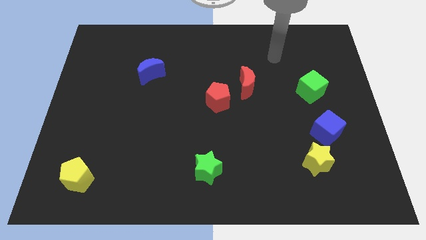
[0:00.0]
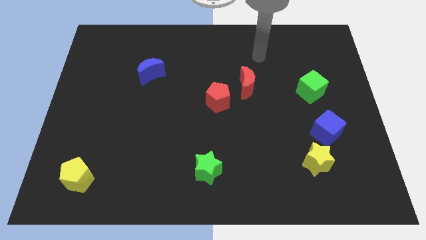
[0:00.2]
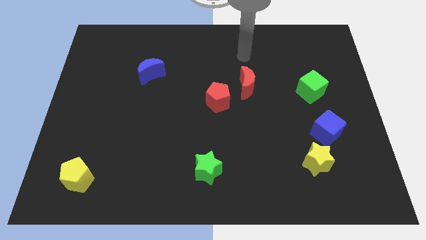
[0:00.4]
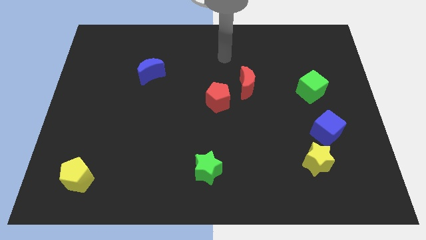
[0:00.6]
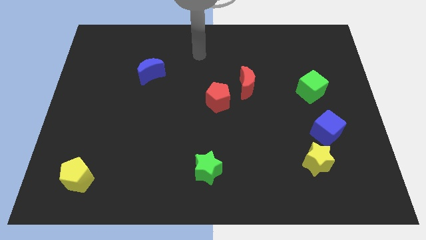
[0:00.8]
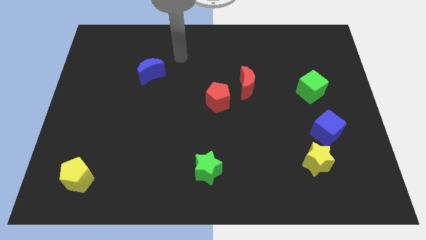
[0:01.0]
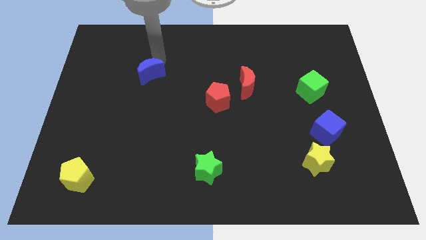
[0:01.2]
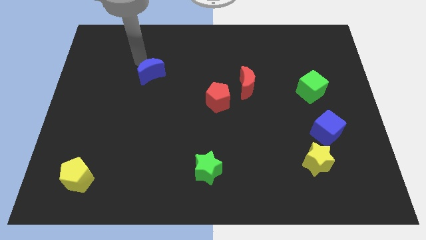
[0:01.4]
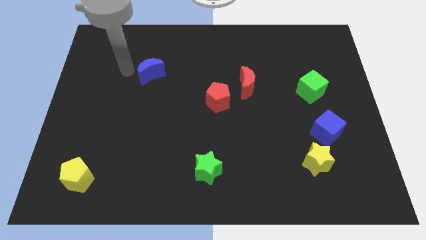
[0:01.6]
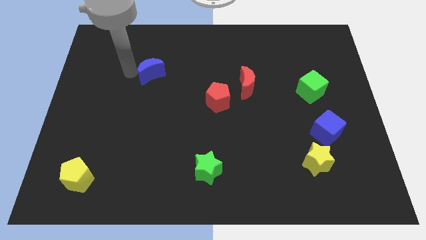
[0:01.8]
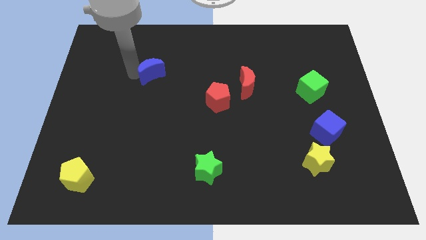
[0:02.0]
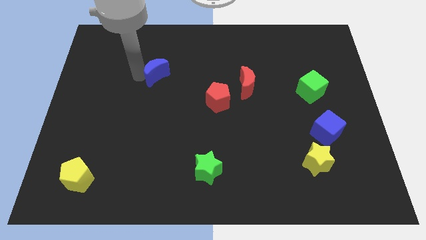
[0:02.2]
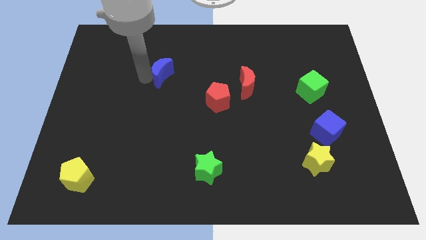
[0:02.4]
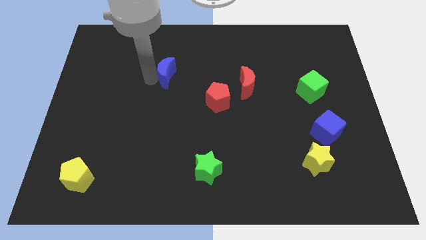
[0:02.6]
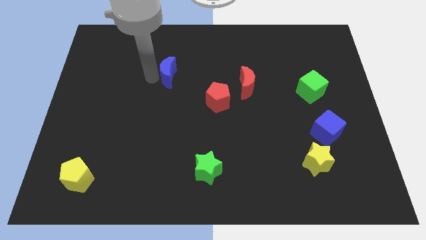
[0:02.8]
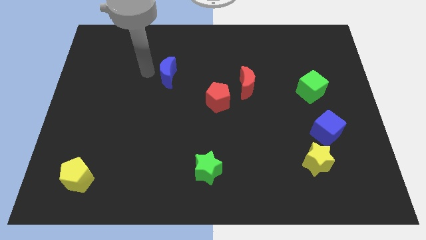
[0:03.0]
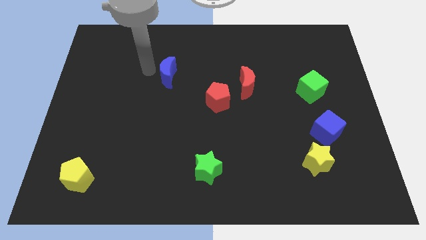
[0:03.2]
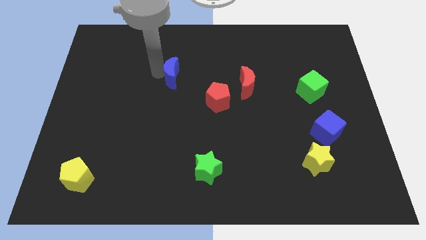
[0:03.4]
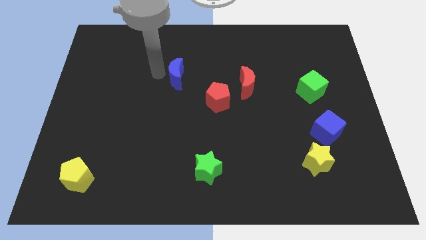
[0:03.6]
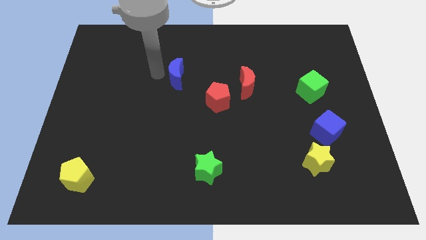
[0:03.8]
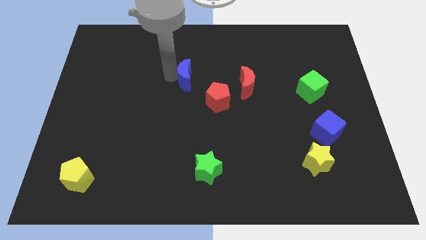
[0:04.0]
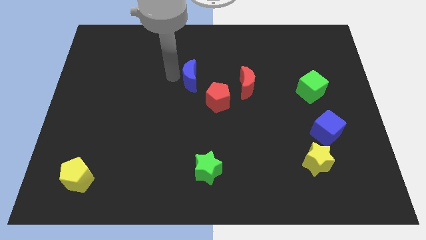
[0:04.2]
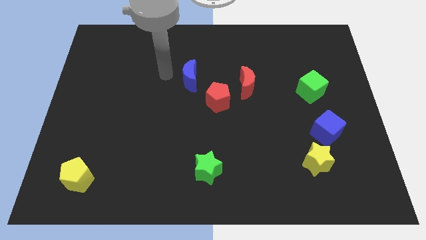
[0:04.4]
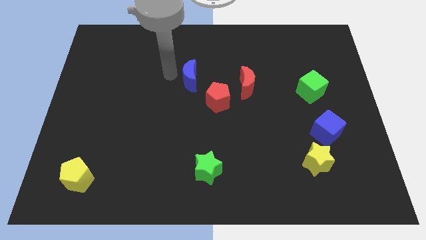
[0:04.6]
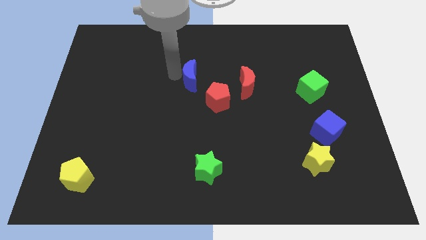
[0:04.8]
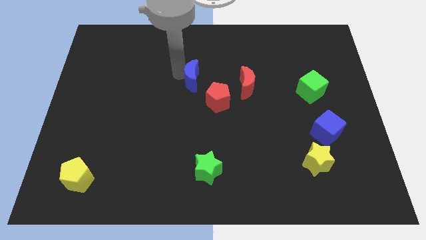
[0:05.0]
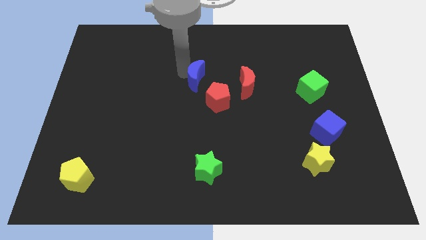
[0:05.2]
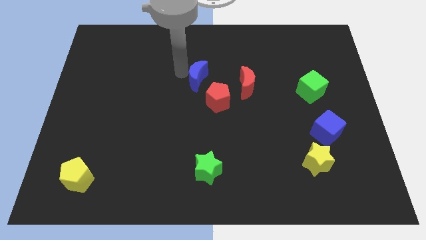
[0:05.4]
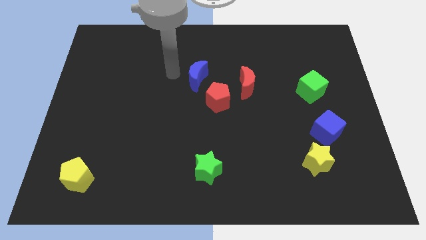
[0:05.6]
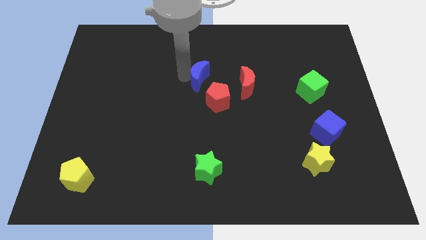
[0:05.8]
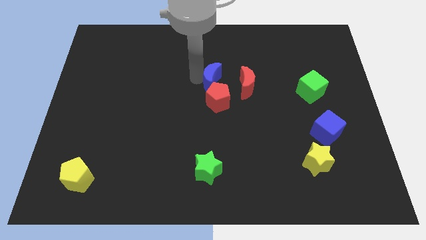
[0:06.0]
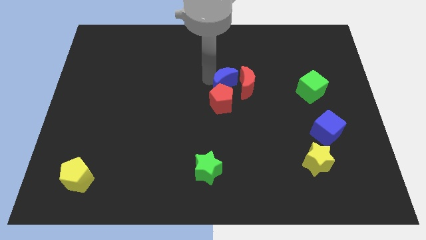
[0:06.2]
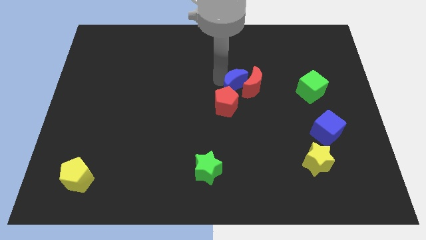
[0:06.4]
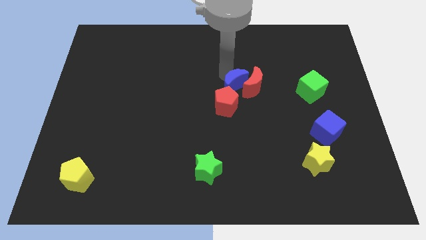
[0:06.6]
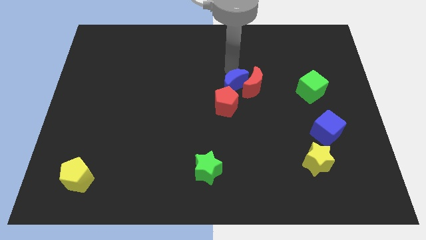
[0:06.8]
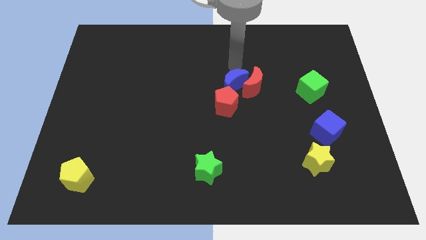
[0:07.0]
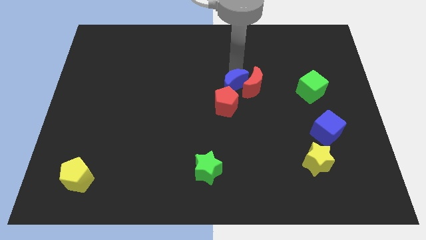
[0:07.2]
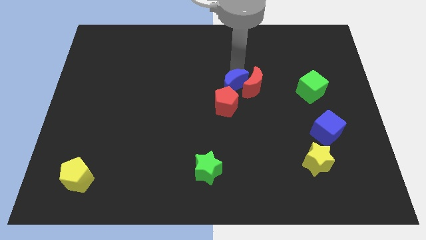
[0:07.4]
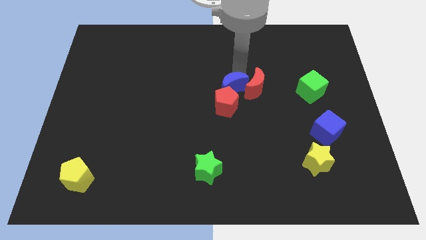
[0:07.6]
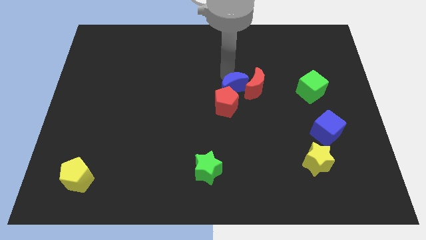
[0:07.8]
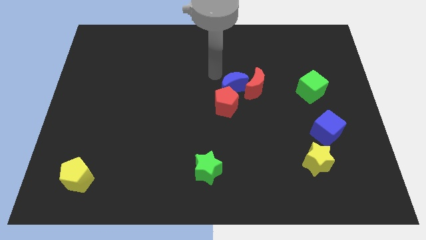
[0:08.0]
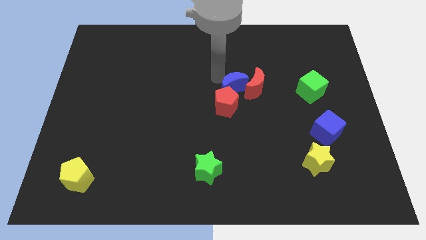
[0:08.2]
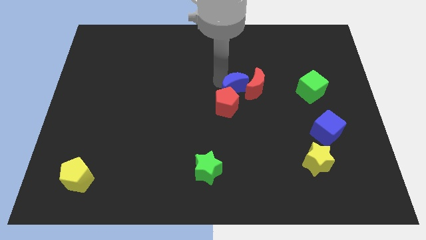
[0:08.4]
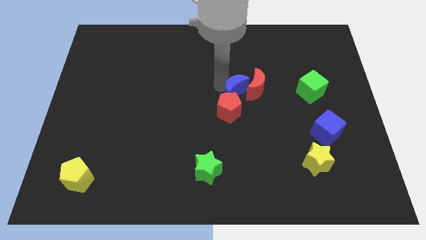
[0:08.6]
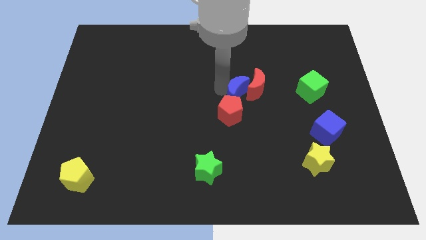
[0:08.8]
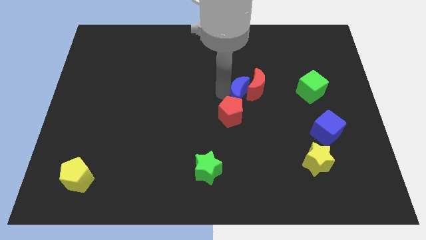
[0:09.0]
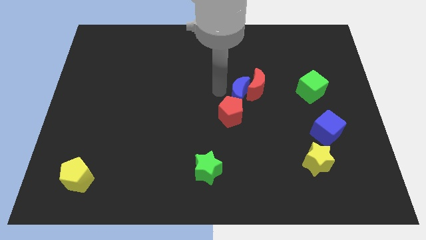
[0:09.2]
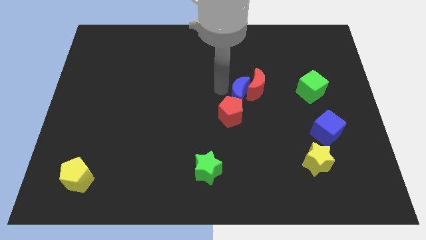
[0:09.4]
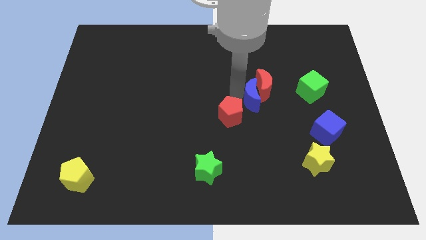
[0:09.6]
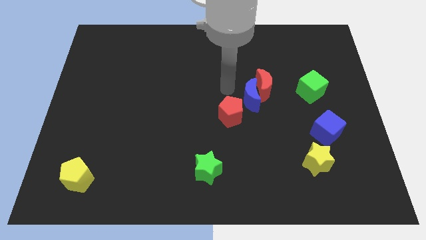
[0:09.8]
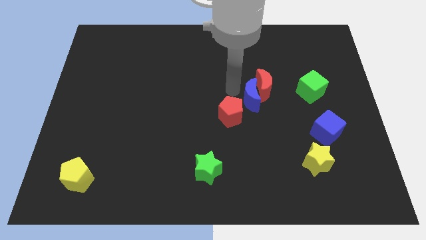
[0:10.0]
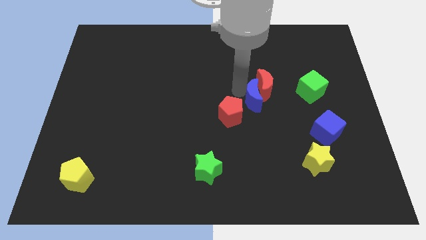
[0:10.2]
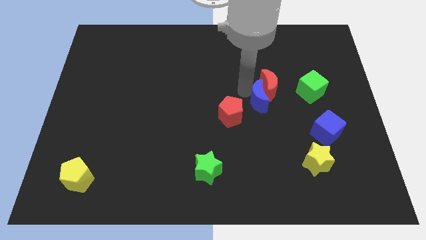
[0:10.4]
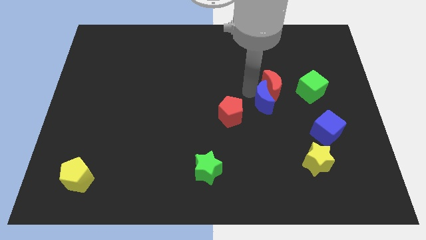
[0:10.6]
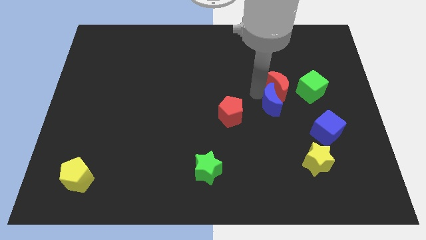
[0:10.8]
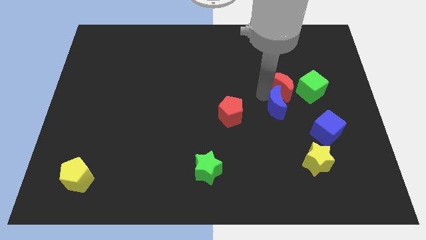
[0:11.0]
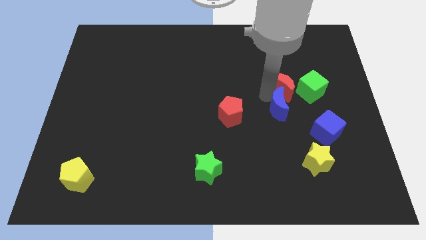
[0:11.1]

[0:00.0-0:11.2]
push the blue moon diagonally up and to the left of the blue cube

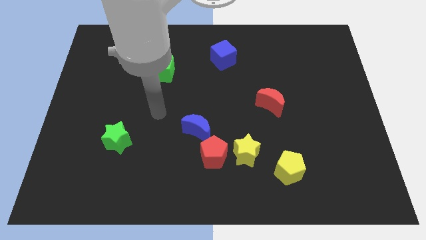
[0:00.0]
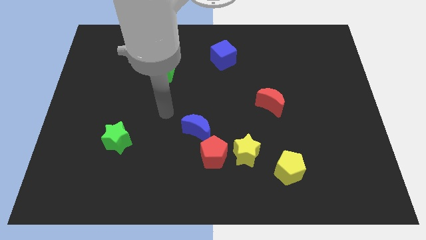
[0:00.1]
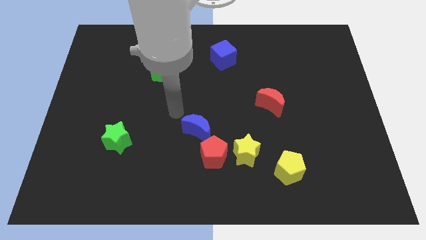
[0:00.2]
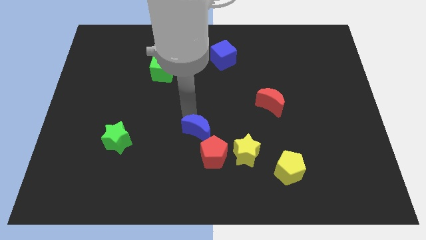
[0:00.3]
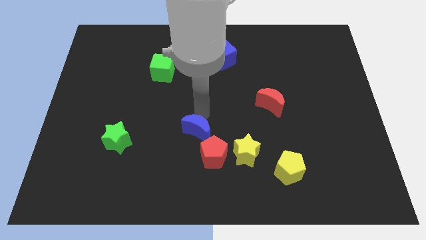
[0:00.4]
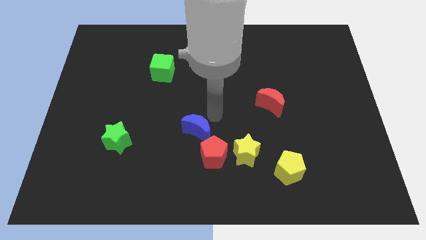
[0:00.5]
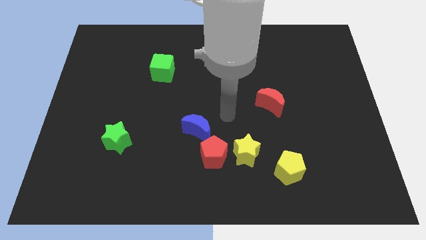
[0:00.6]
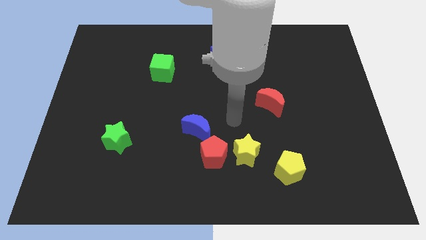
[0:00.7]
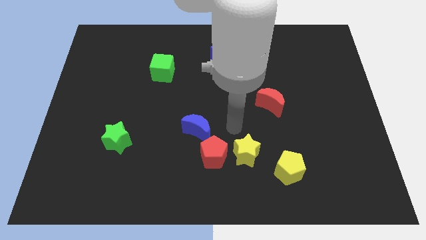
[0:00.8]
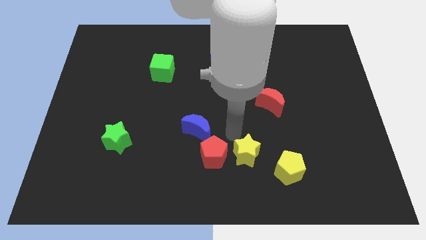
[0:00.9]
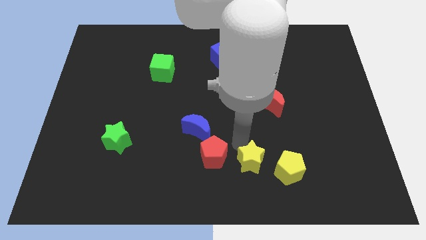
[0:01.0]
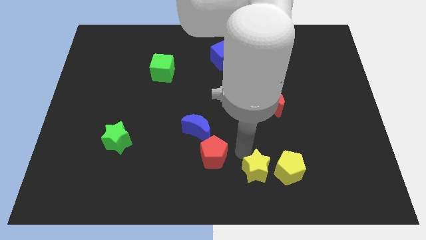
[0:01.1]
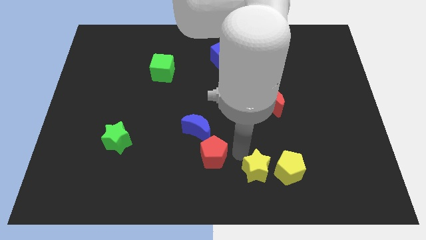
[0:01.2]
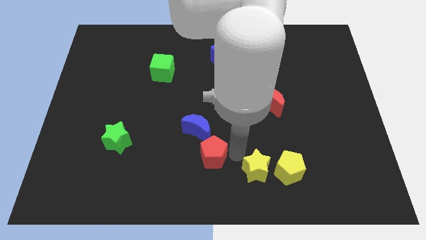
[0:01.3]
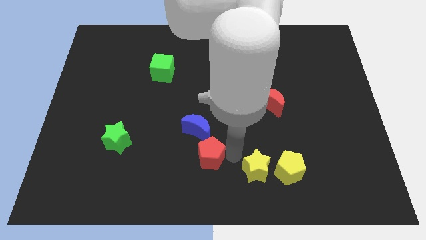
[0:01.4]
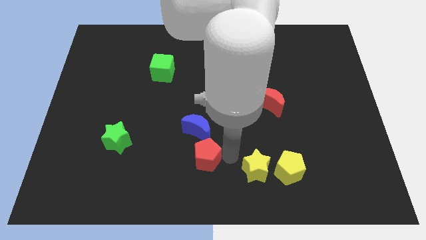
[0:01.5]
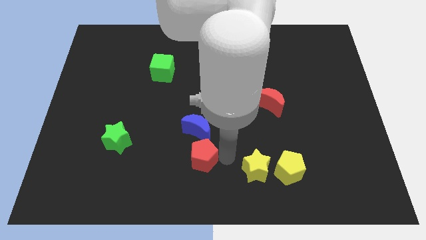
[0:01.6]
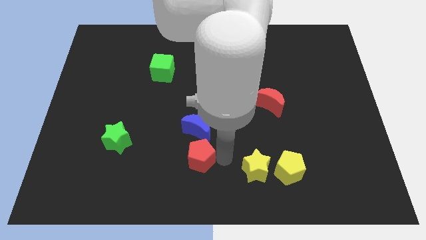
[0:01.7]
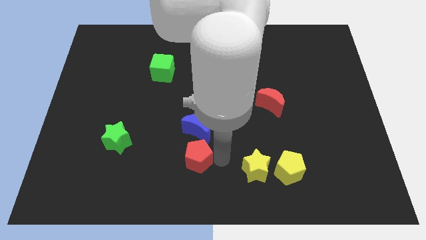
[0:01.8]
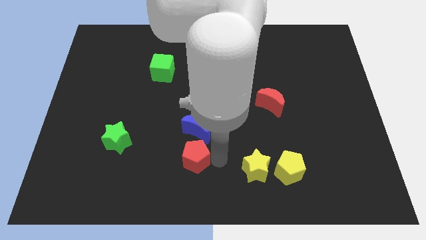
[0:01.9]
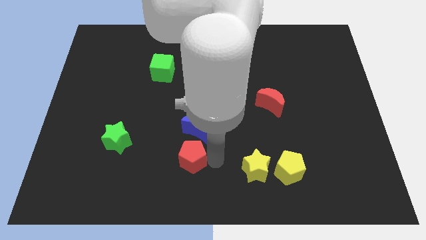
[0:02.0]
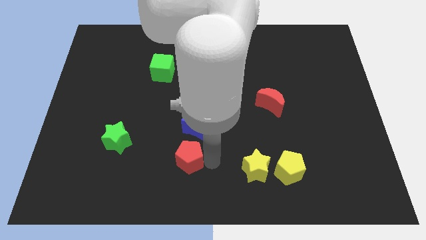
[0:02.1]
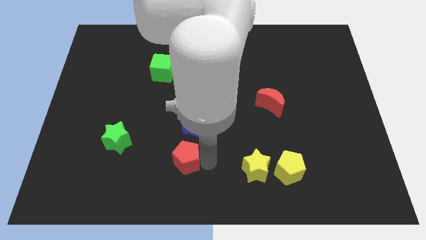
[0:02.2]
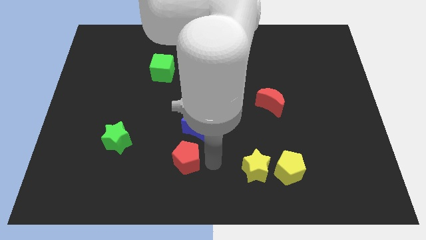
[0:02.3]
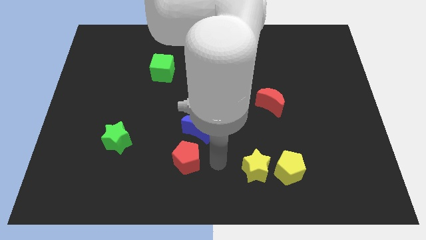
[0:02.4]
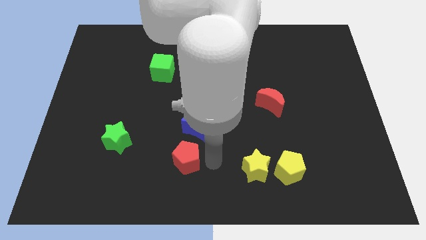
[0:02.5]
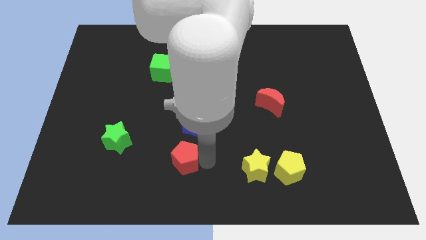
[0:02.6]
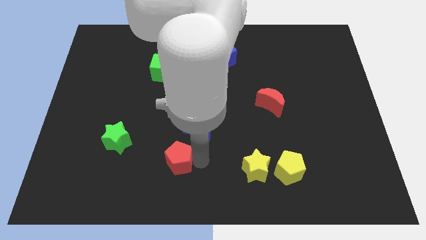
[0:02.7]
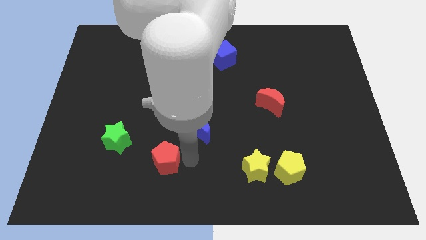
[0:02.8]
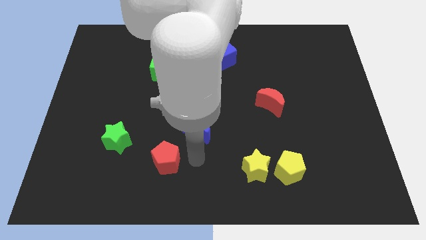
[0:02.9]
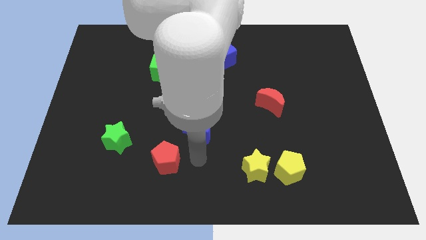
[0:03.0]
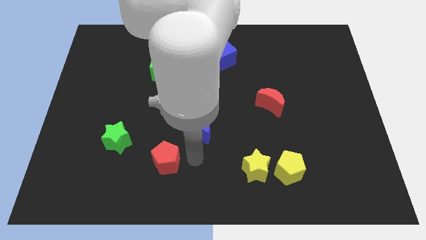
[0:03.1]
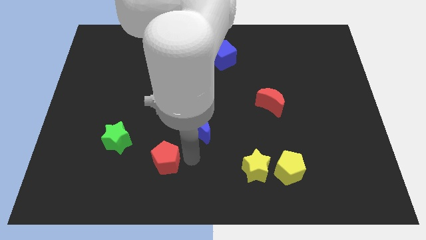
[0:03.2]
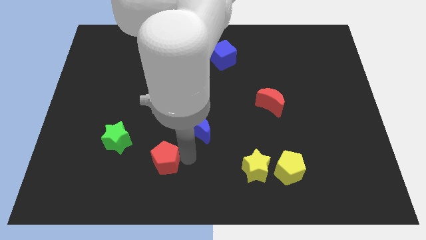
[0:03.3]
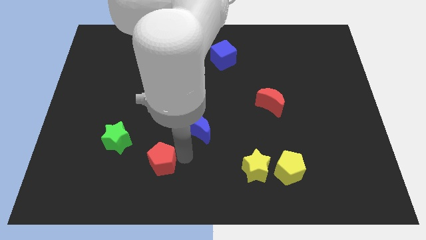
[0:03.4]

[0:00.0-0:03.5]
move the red pentagon to the bottom right of the green star
